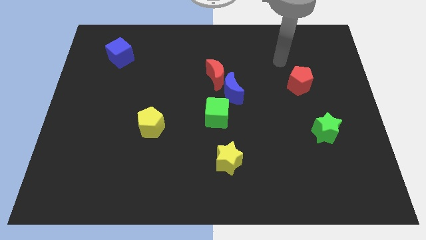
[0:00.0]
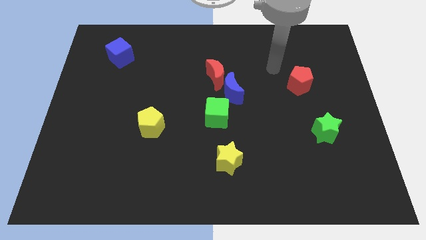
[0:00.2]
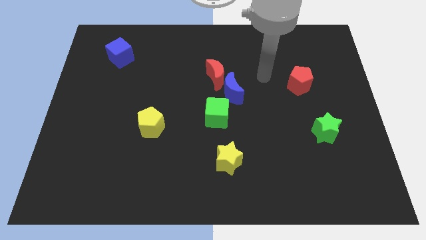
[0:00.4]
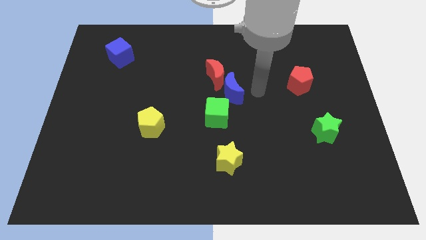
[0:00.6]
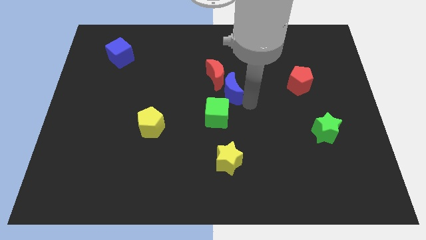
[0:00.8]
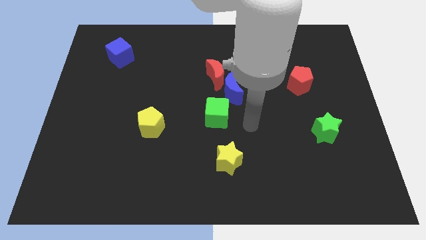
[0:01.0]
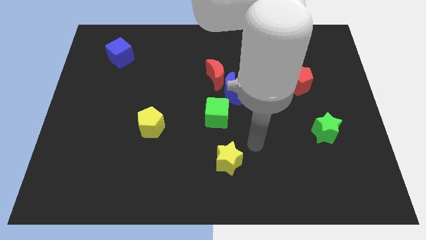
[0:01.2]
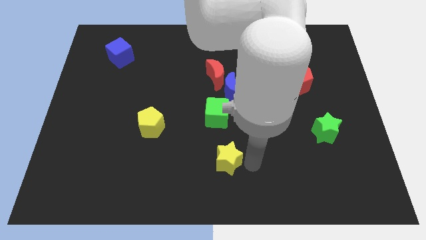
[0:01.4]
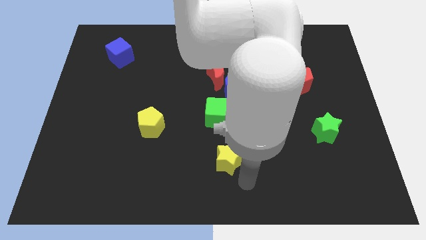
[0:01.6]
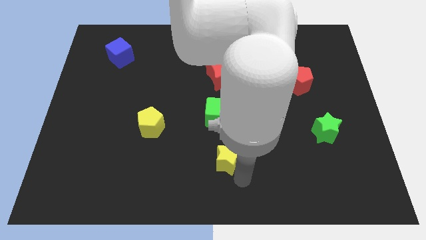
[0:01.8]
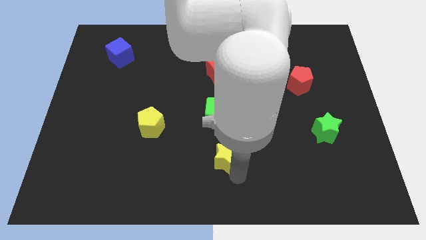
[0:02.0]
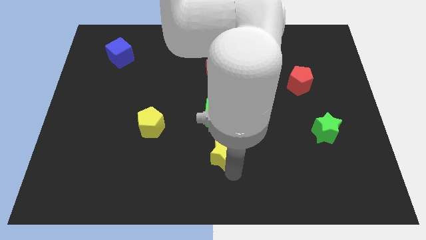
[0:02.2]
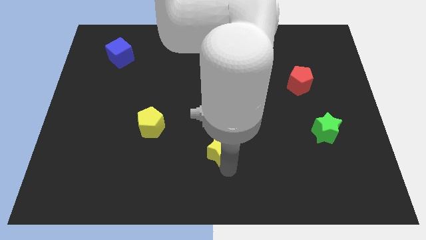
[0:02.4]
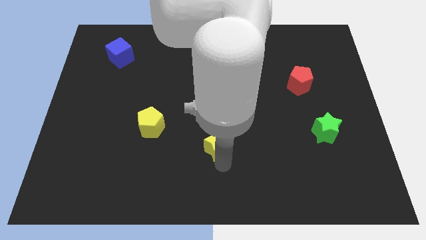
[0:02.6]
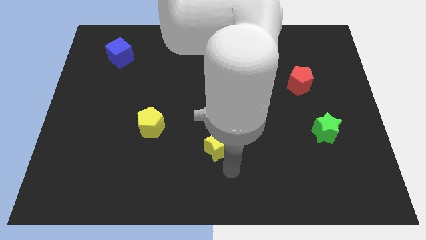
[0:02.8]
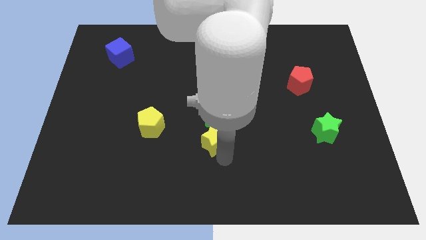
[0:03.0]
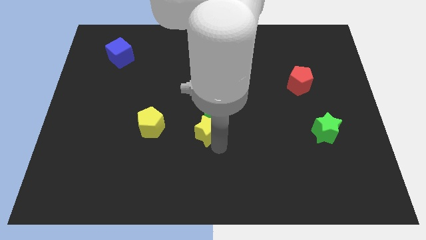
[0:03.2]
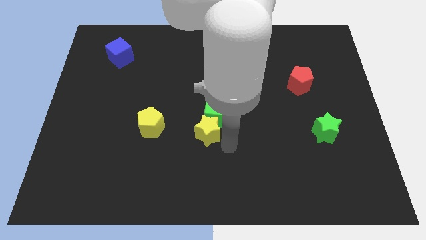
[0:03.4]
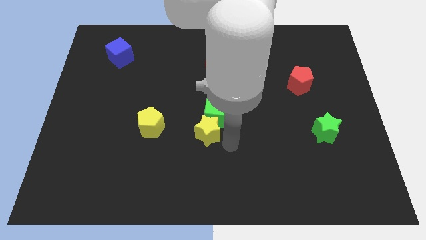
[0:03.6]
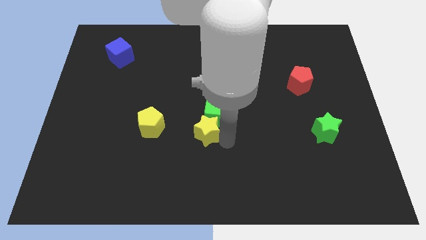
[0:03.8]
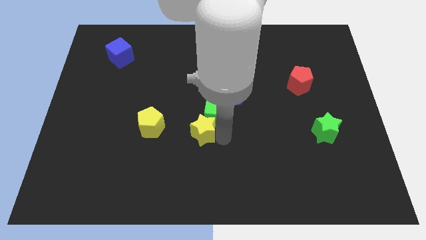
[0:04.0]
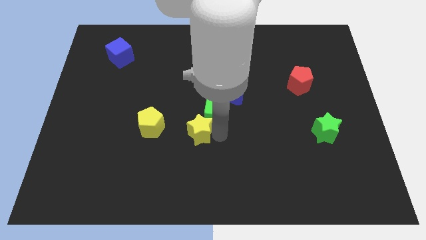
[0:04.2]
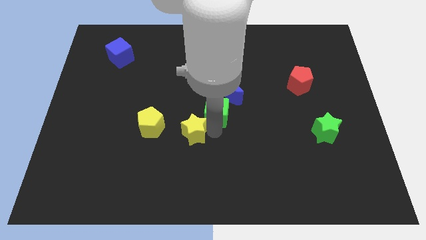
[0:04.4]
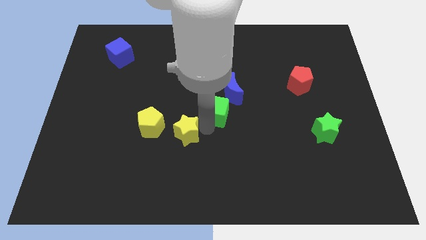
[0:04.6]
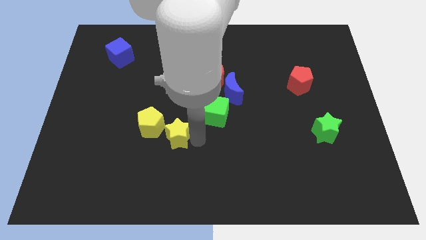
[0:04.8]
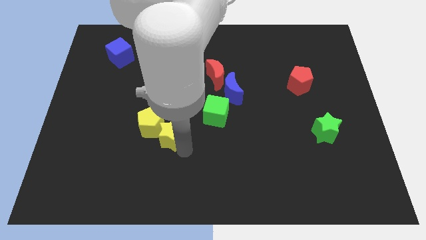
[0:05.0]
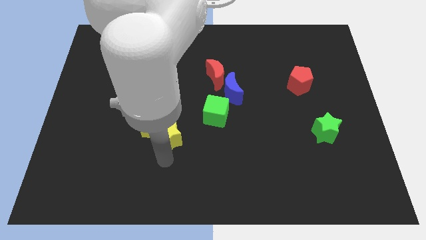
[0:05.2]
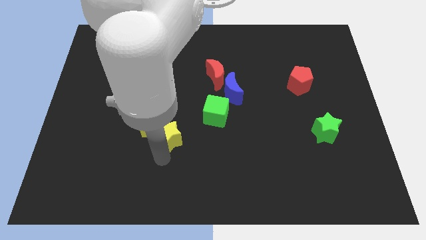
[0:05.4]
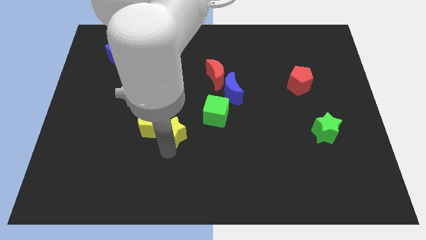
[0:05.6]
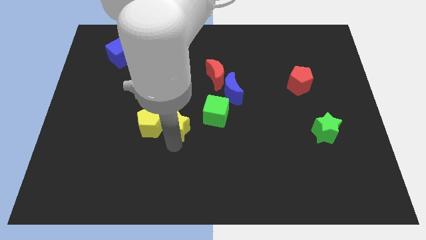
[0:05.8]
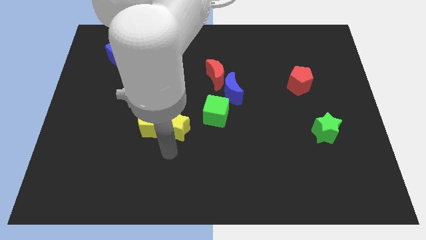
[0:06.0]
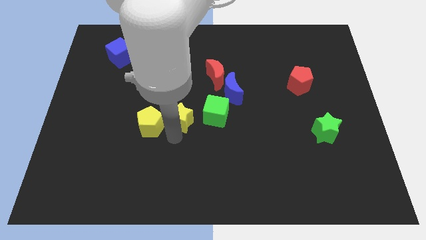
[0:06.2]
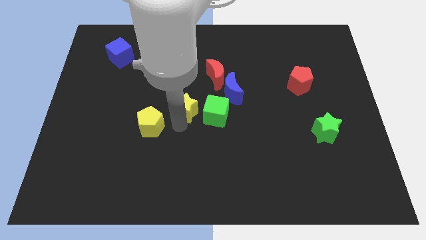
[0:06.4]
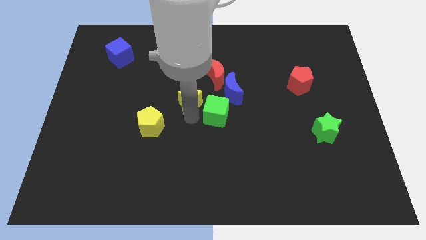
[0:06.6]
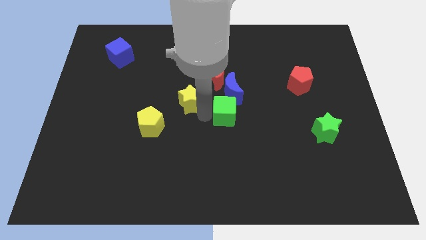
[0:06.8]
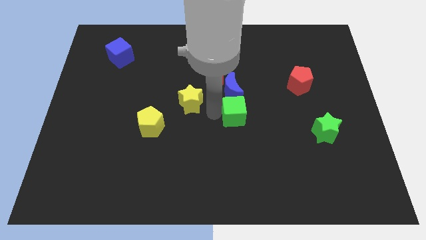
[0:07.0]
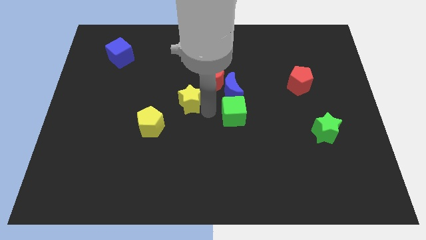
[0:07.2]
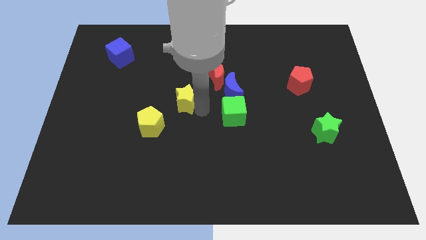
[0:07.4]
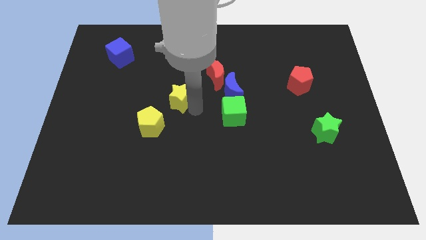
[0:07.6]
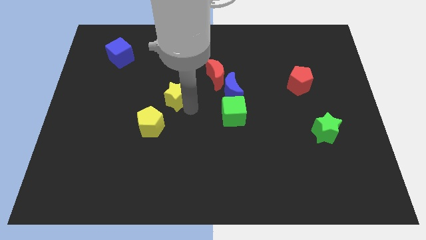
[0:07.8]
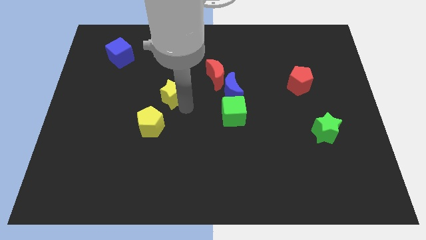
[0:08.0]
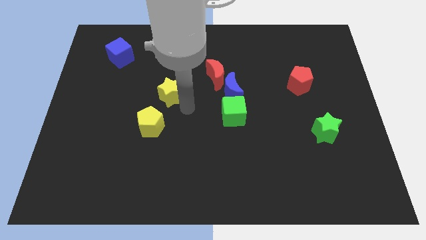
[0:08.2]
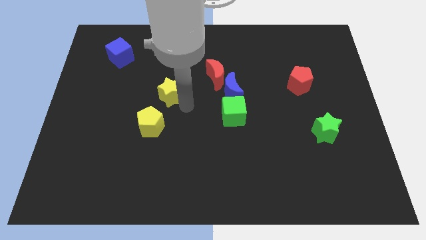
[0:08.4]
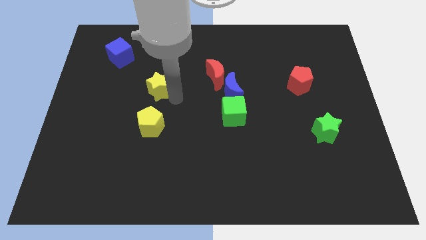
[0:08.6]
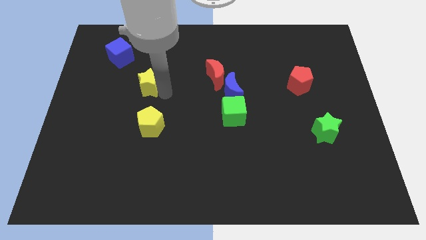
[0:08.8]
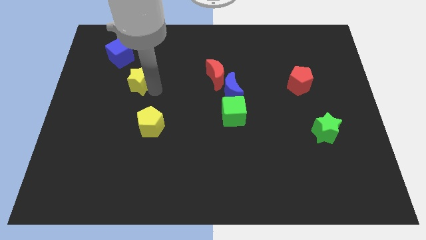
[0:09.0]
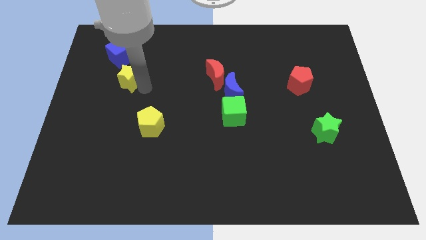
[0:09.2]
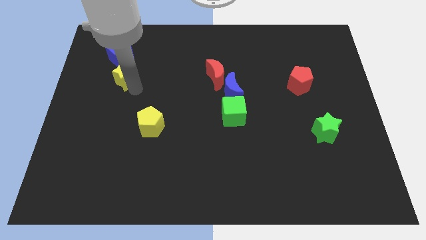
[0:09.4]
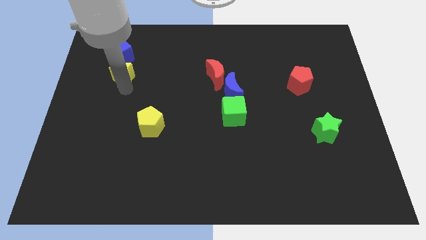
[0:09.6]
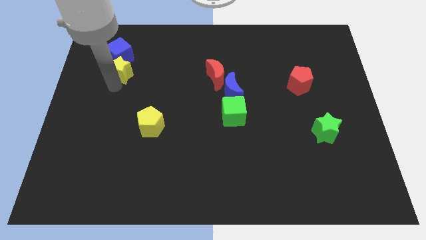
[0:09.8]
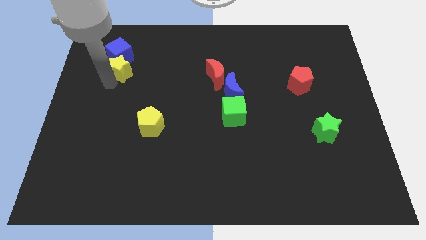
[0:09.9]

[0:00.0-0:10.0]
slide the yellow star next to the blue cube

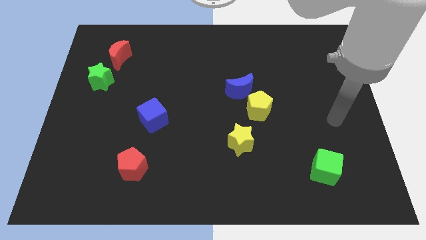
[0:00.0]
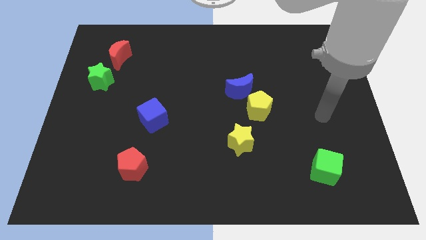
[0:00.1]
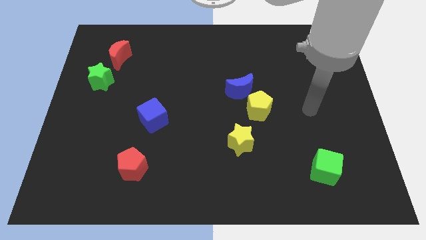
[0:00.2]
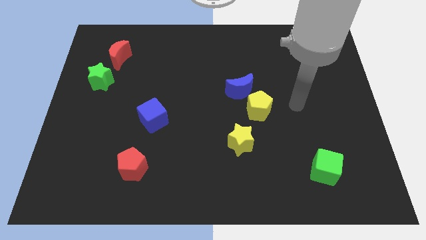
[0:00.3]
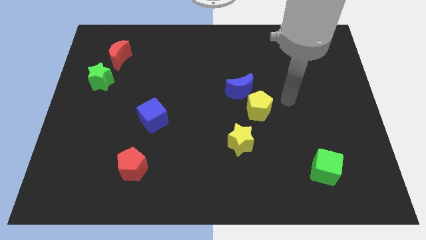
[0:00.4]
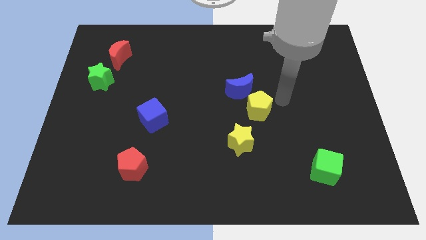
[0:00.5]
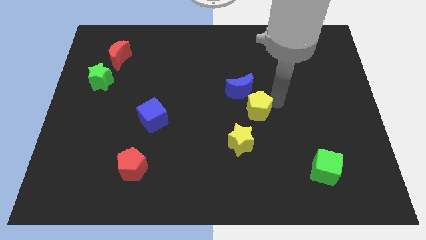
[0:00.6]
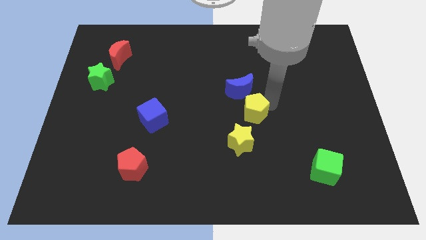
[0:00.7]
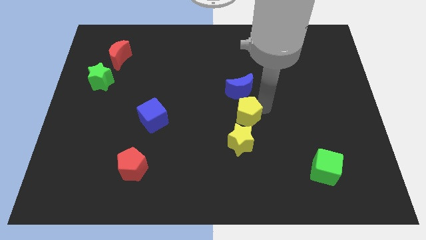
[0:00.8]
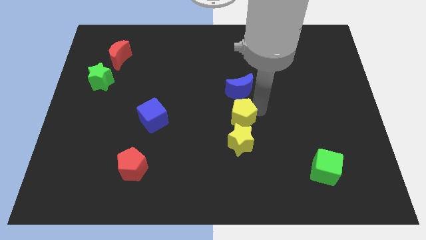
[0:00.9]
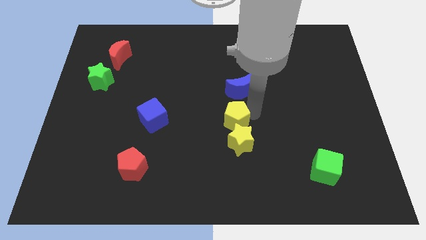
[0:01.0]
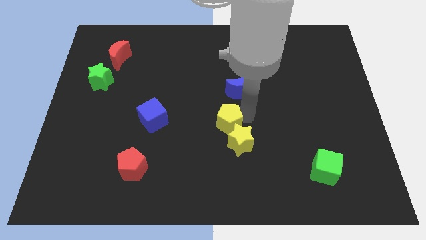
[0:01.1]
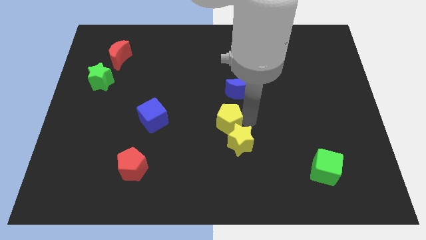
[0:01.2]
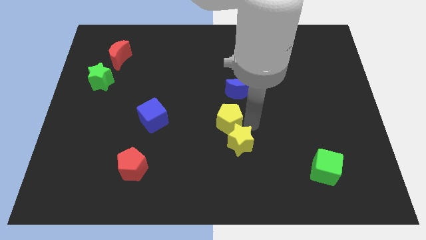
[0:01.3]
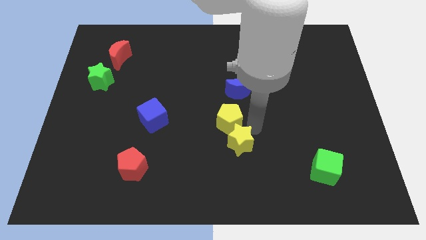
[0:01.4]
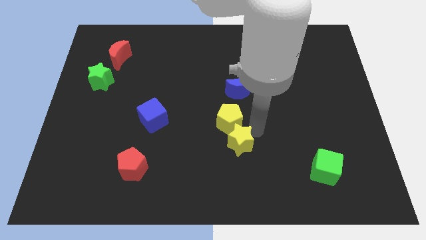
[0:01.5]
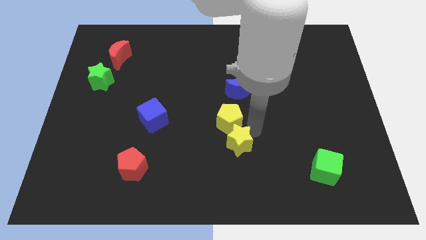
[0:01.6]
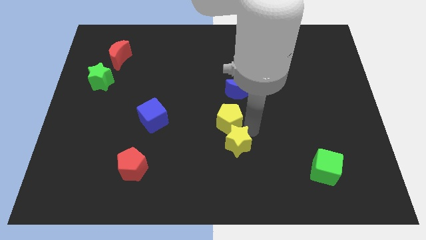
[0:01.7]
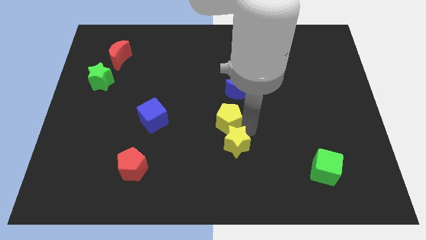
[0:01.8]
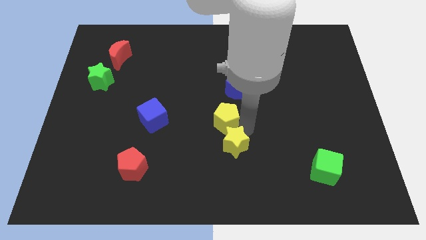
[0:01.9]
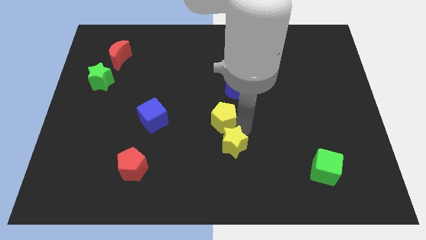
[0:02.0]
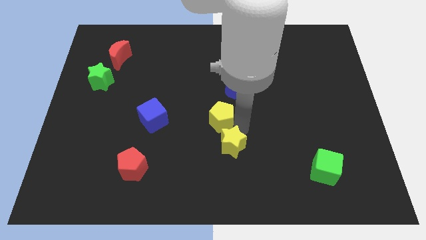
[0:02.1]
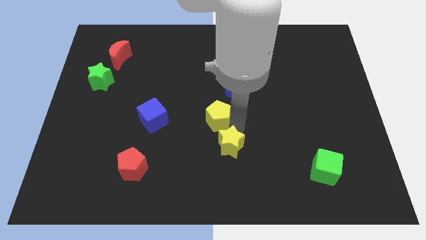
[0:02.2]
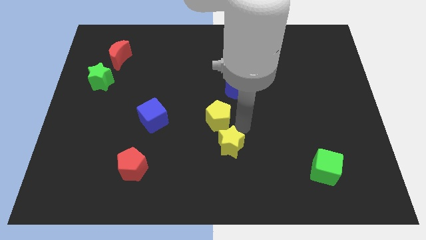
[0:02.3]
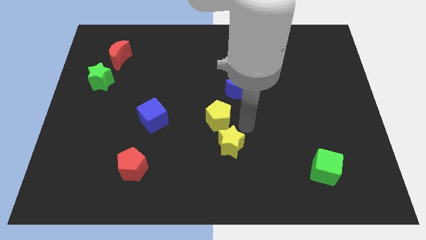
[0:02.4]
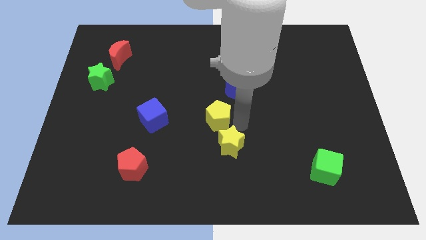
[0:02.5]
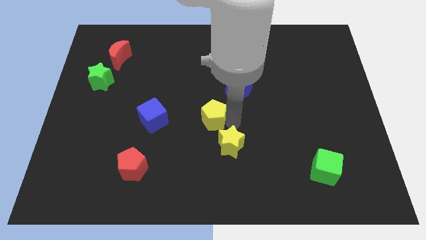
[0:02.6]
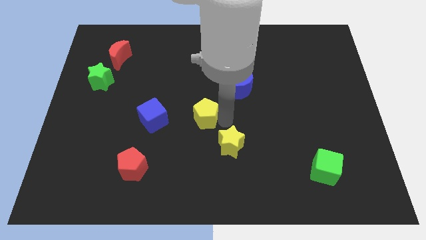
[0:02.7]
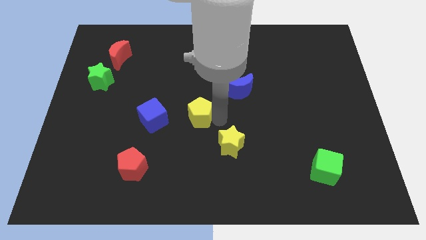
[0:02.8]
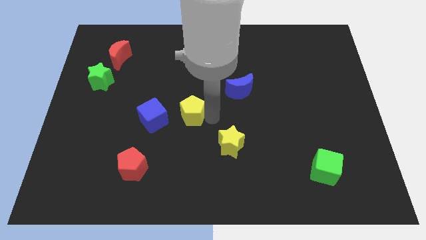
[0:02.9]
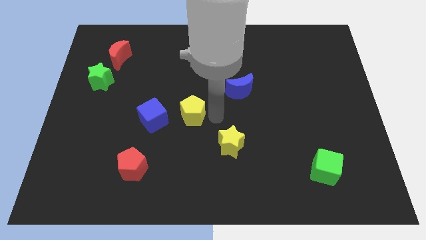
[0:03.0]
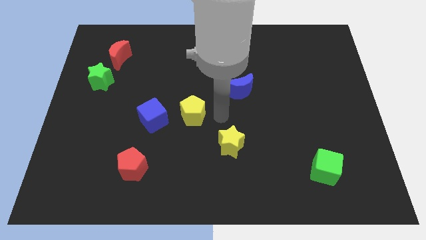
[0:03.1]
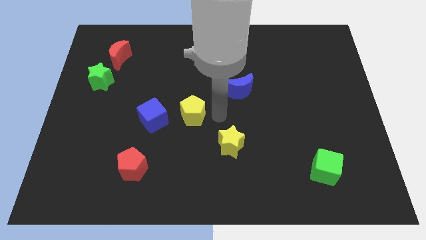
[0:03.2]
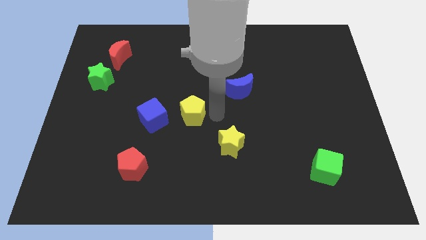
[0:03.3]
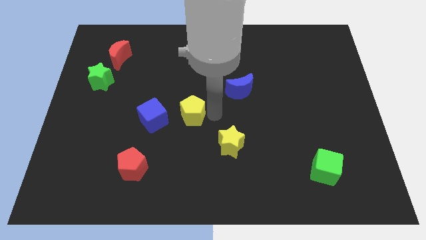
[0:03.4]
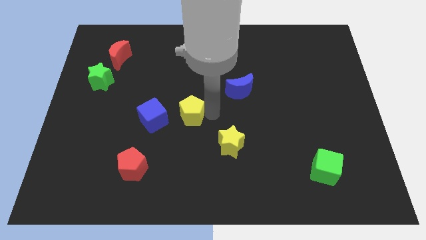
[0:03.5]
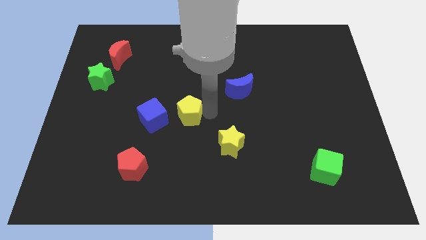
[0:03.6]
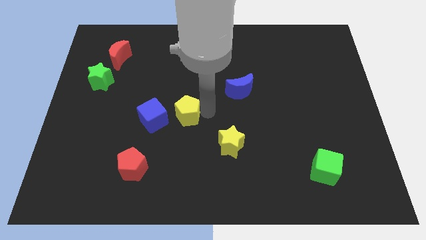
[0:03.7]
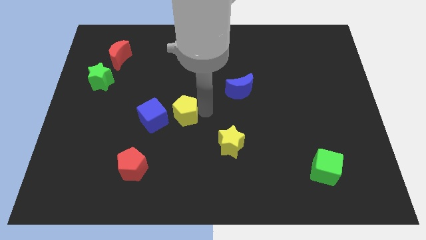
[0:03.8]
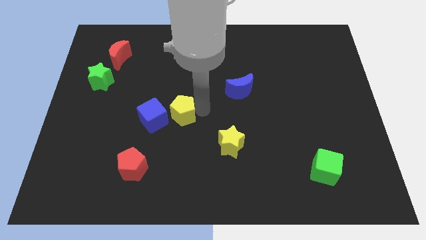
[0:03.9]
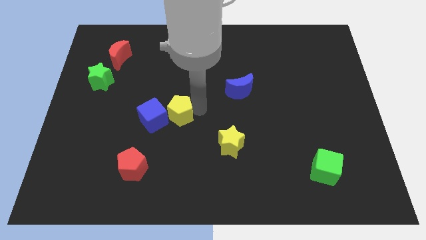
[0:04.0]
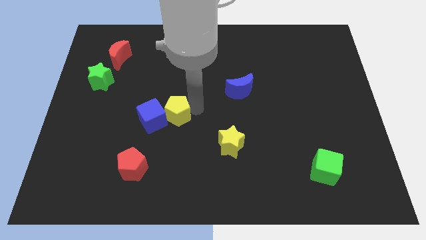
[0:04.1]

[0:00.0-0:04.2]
put the yellow pentagon next to the blue cube
